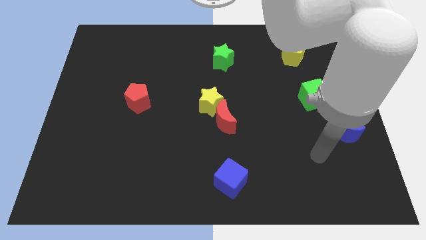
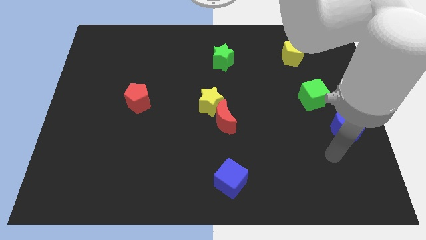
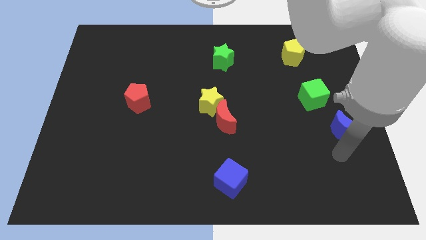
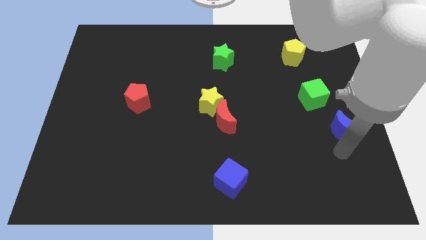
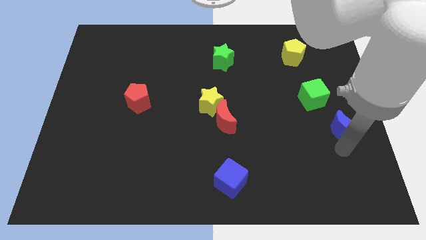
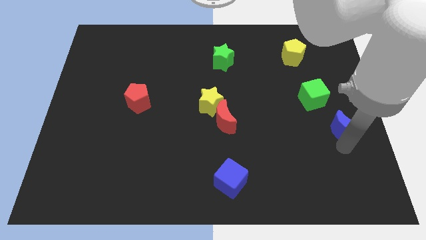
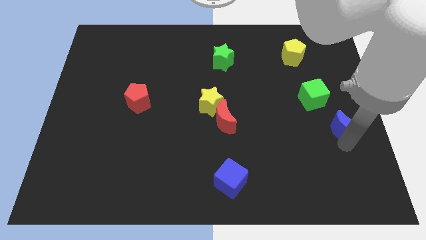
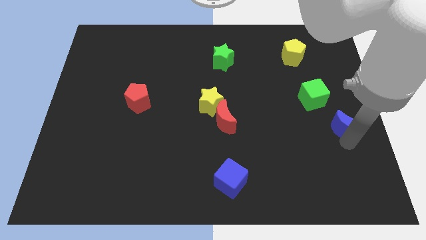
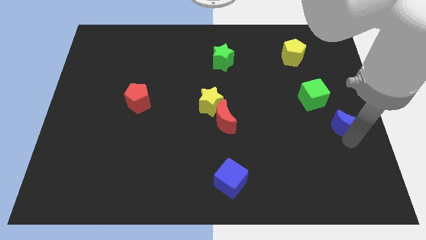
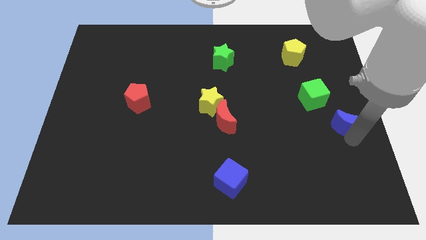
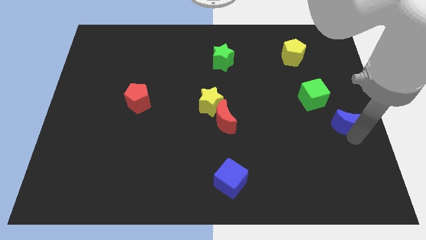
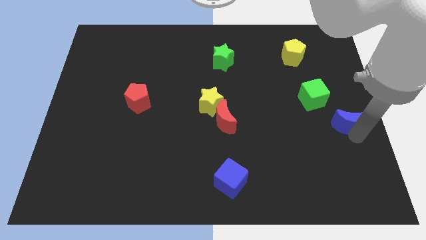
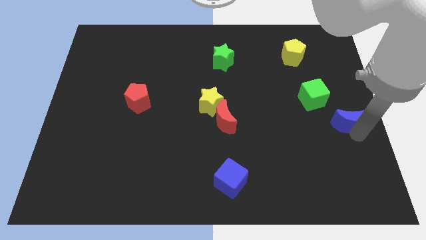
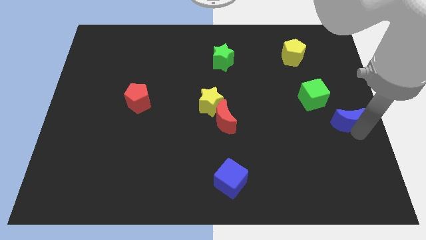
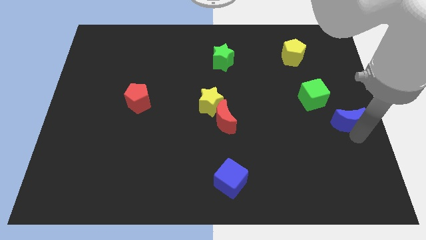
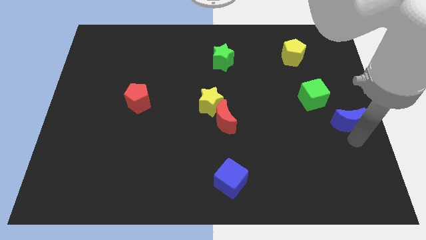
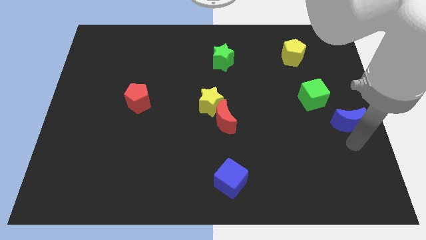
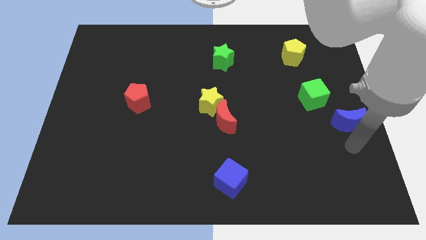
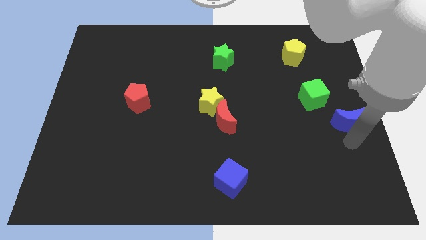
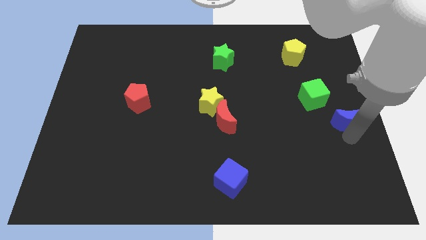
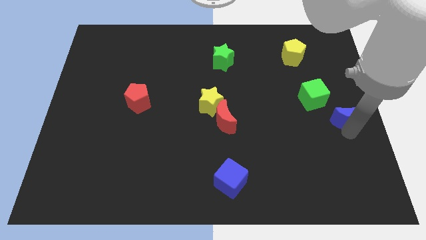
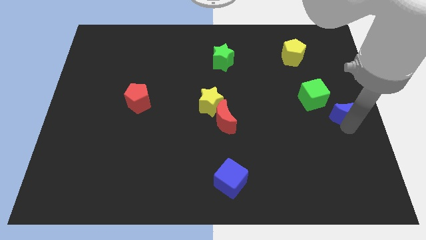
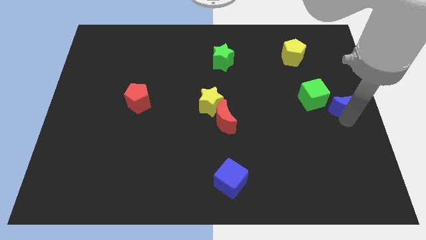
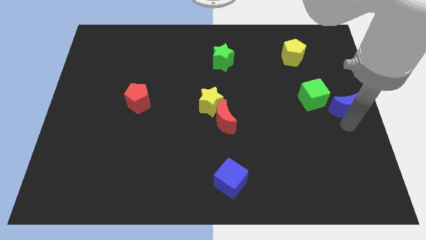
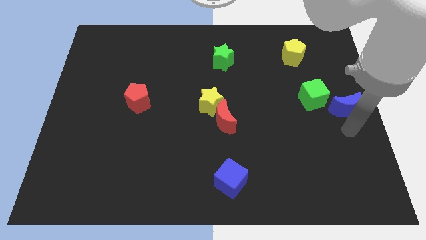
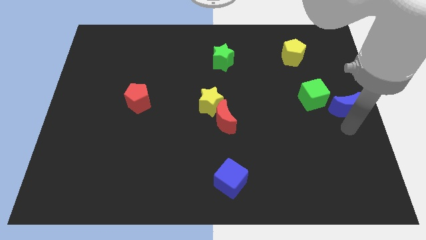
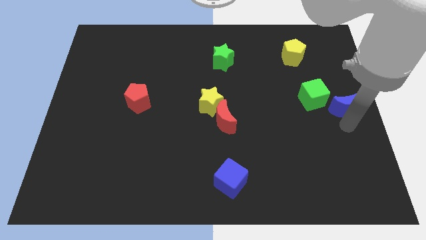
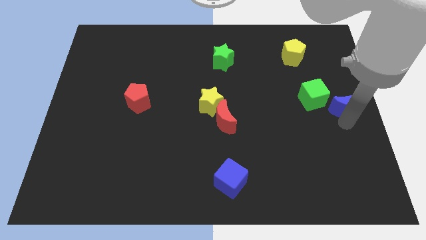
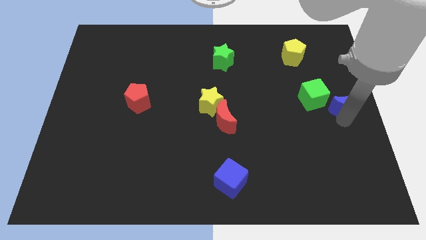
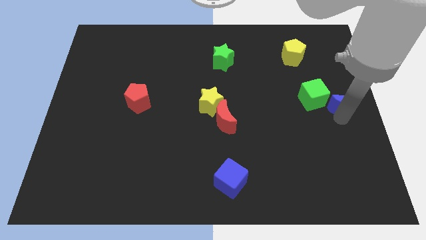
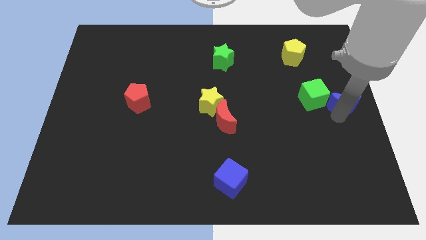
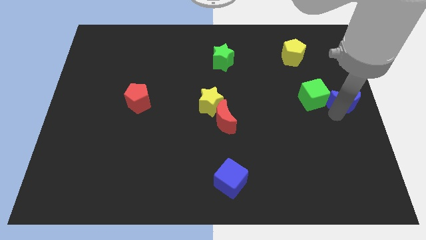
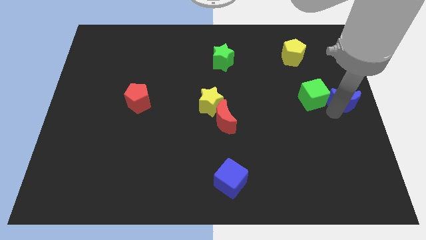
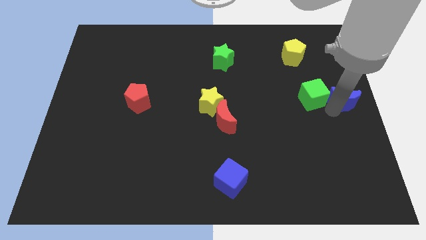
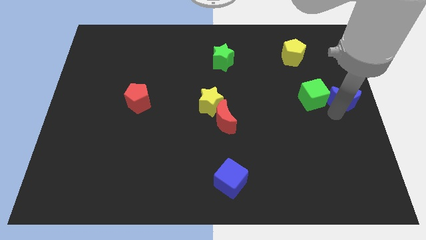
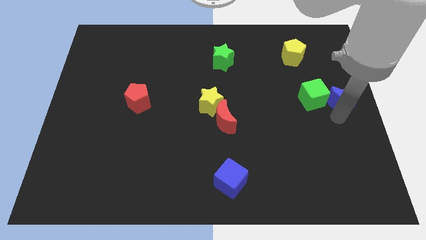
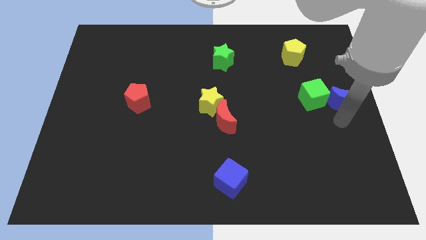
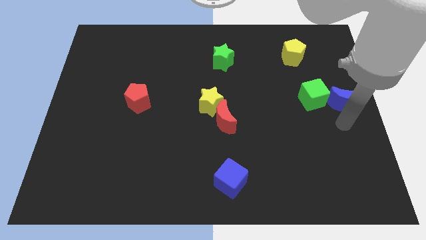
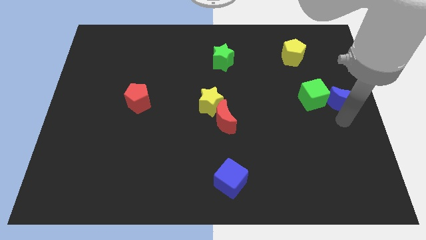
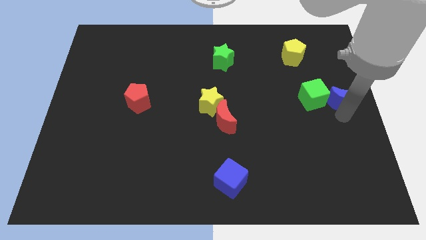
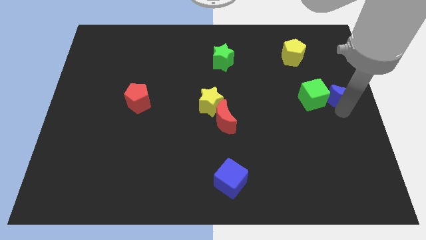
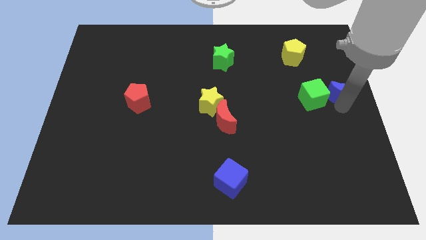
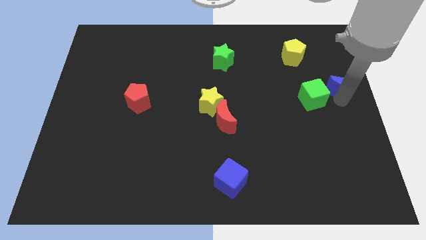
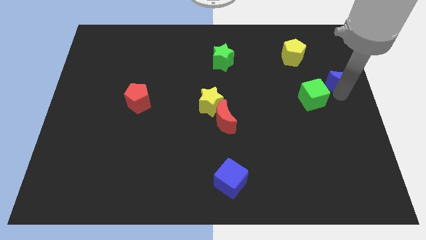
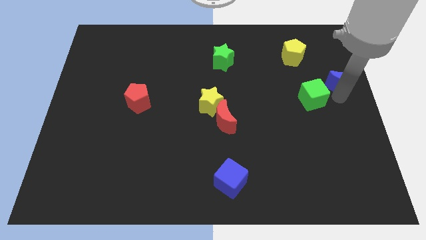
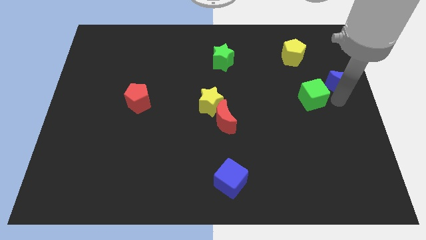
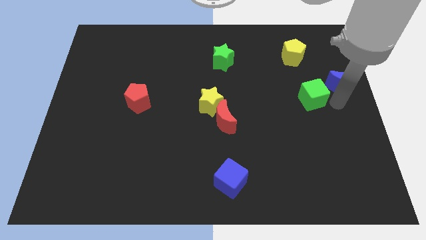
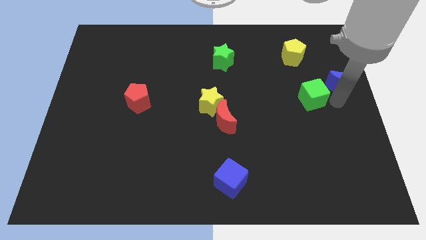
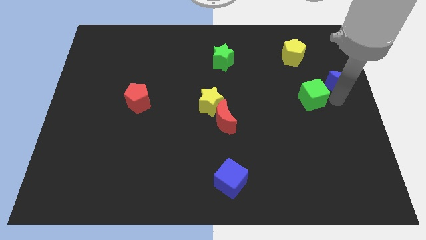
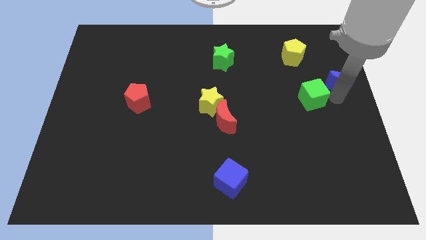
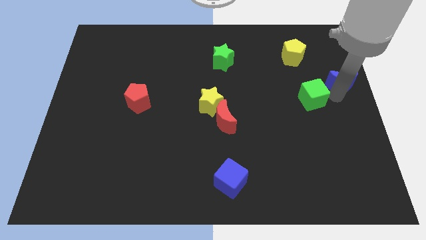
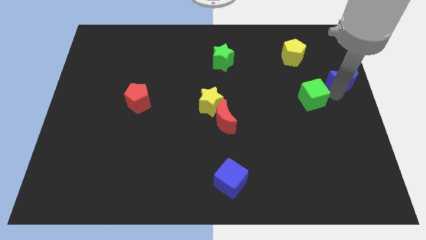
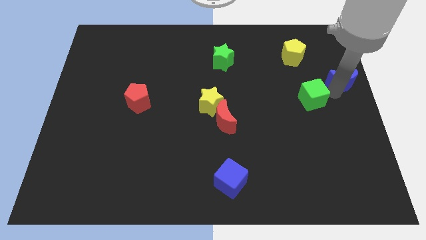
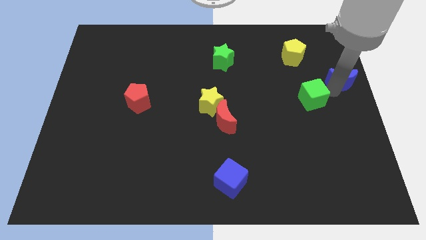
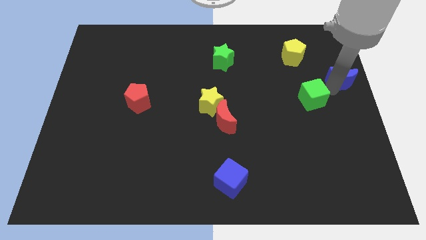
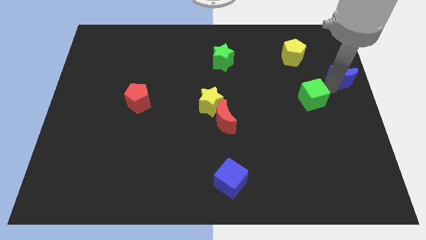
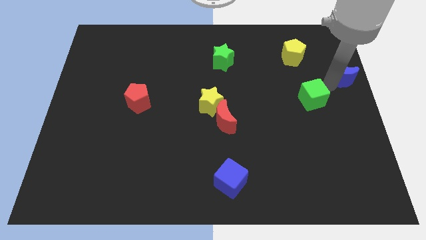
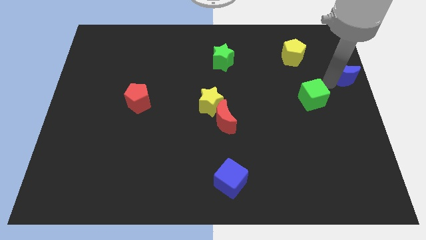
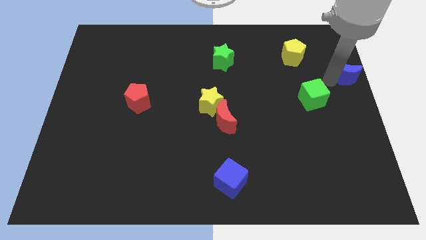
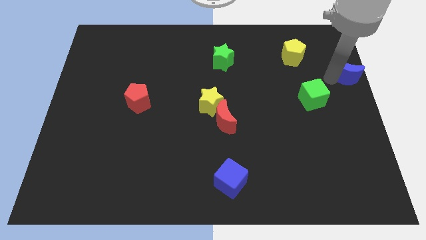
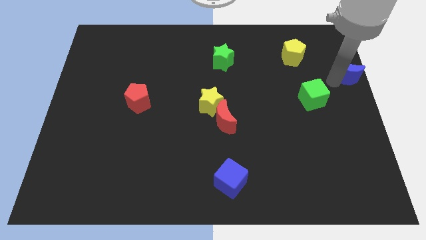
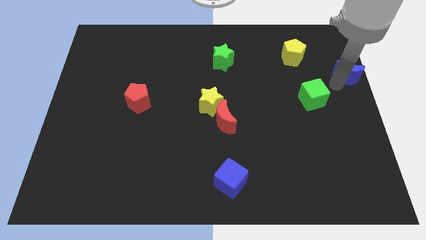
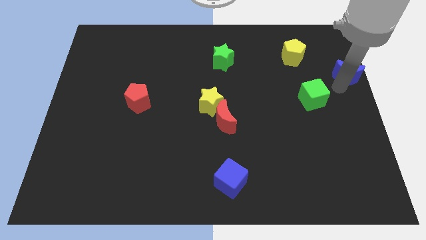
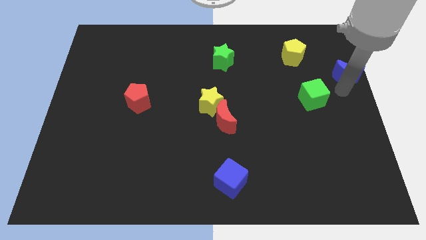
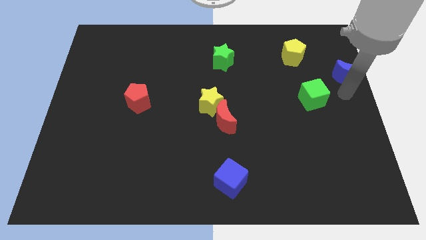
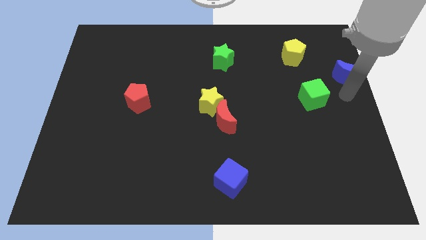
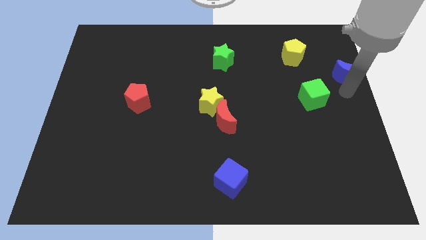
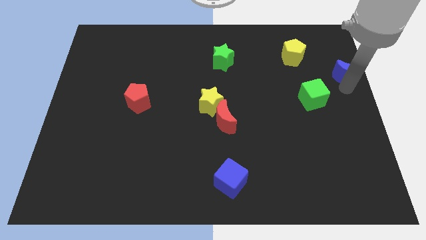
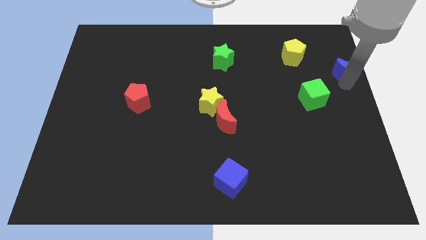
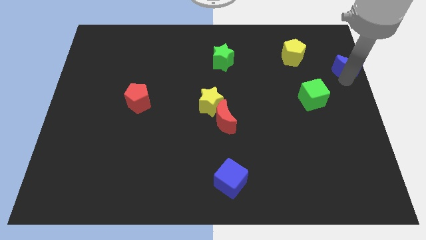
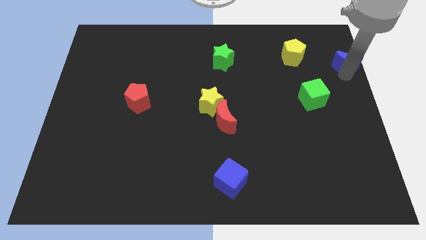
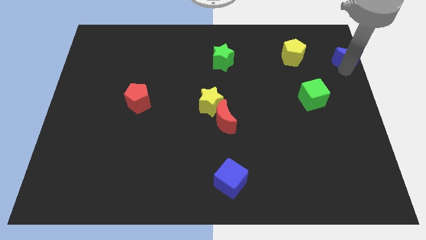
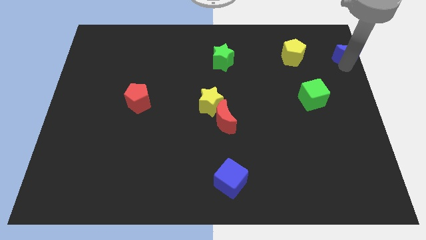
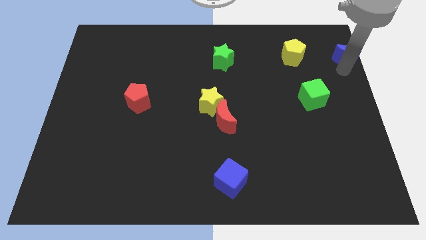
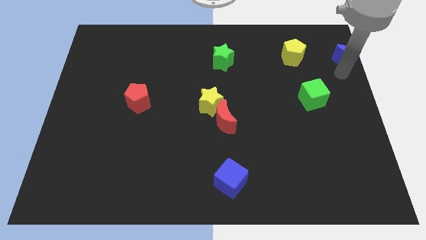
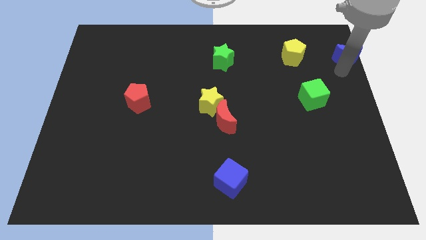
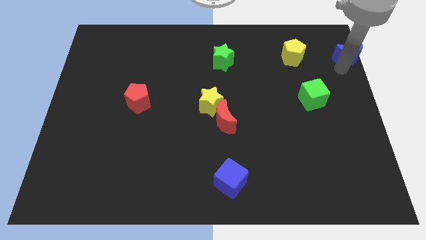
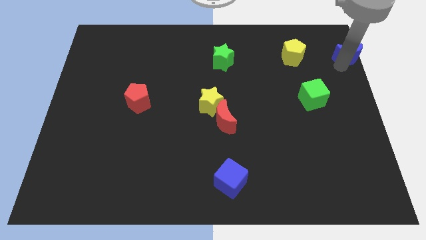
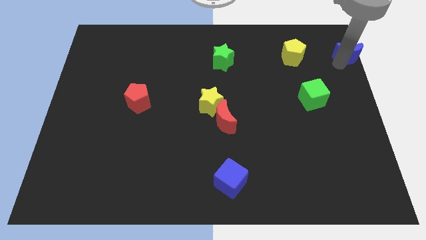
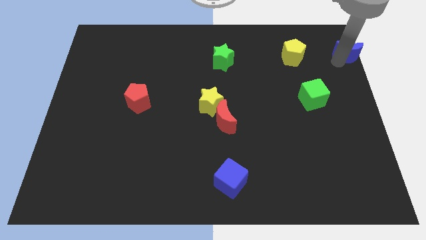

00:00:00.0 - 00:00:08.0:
push the blue moon to the top right of the board
